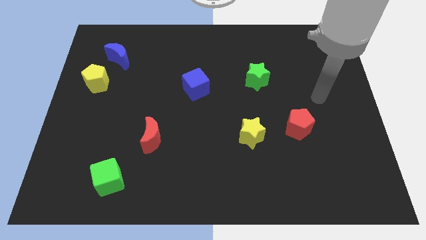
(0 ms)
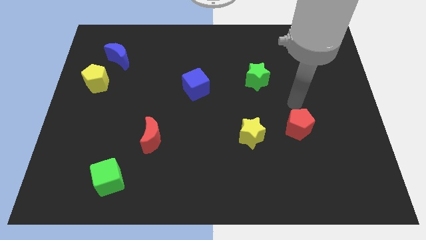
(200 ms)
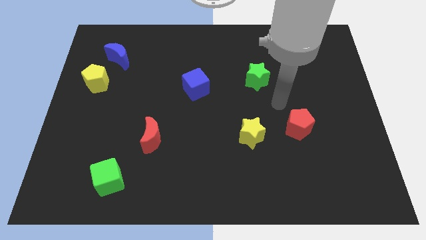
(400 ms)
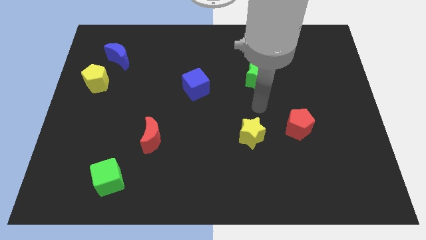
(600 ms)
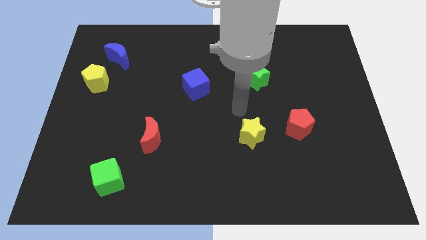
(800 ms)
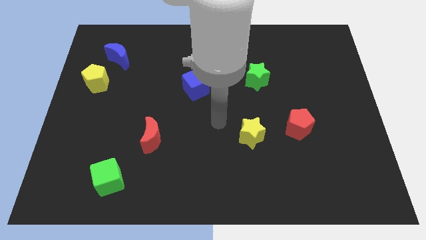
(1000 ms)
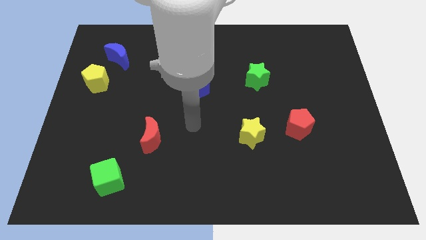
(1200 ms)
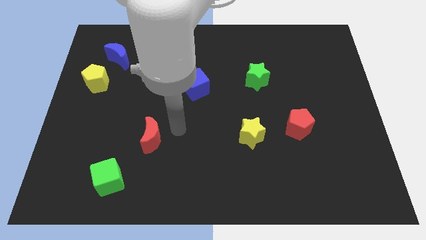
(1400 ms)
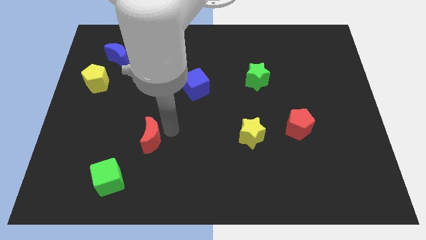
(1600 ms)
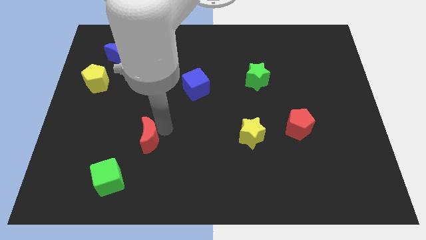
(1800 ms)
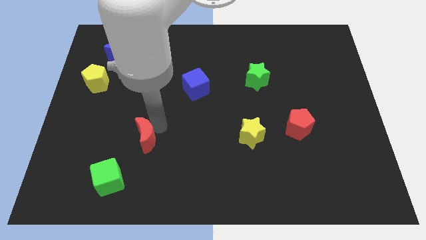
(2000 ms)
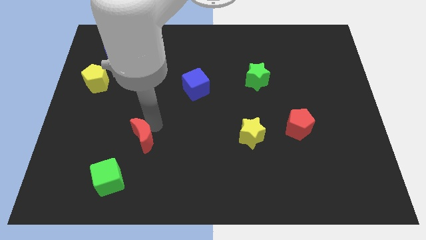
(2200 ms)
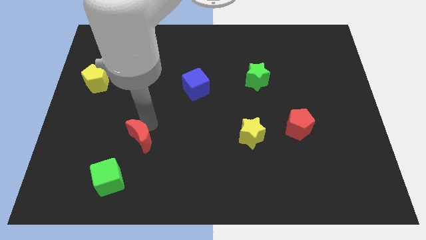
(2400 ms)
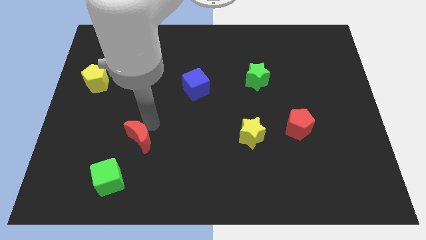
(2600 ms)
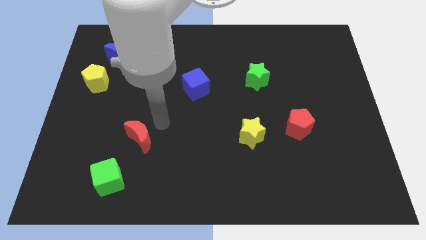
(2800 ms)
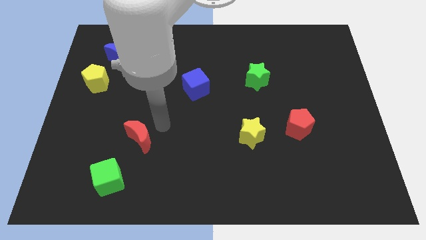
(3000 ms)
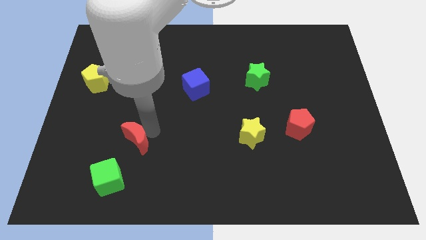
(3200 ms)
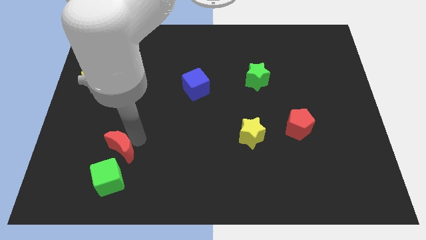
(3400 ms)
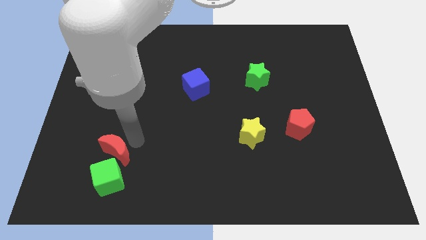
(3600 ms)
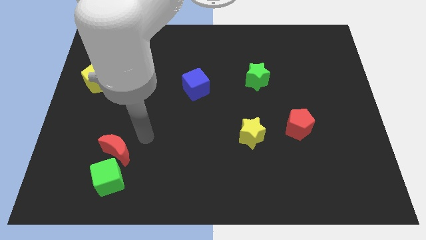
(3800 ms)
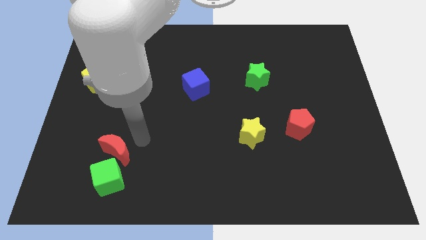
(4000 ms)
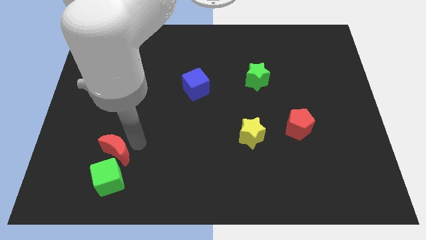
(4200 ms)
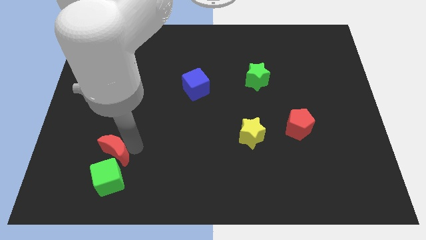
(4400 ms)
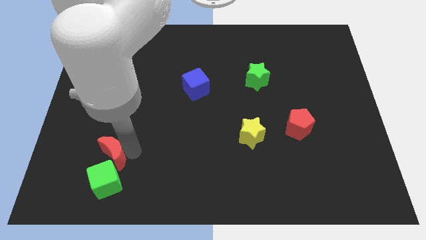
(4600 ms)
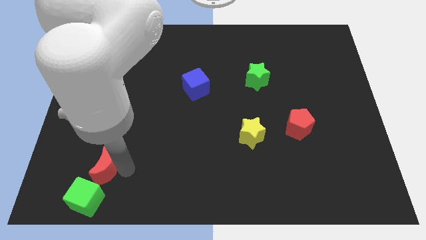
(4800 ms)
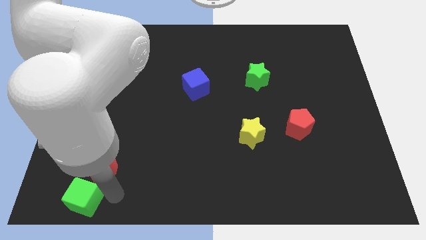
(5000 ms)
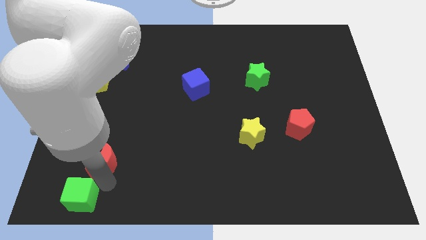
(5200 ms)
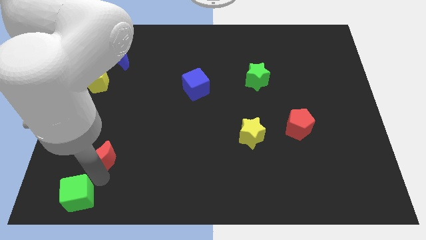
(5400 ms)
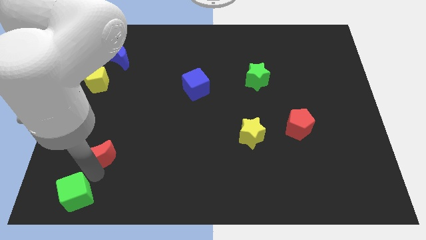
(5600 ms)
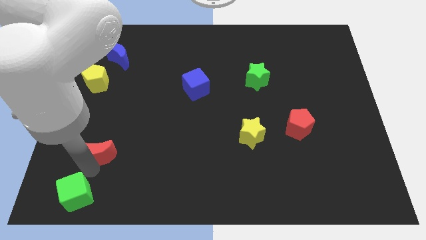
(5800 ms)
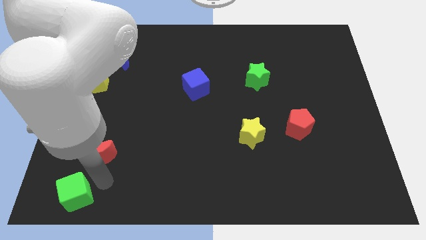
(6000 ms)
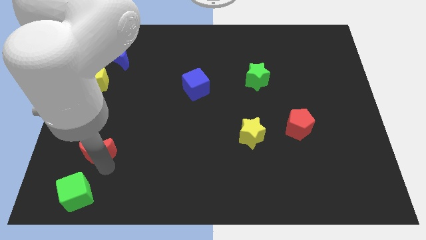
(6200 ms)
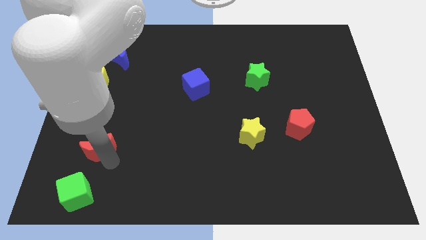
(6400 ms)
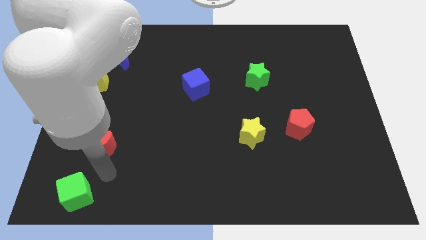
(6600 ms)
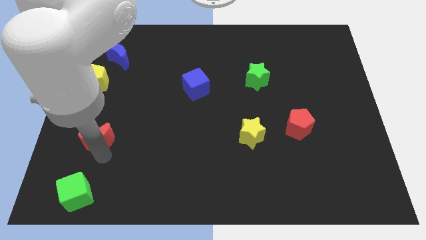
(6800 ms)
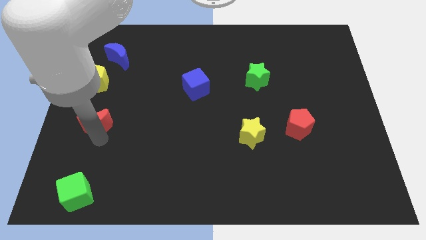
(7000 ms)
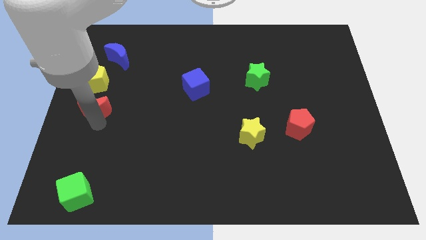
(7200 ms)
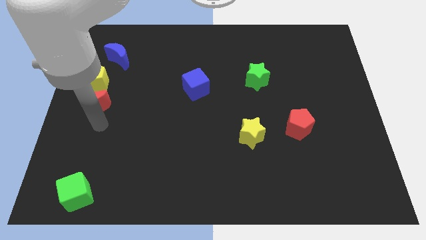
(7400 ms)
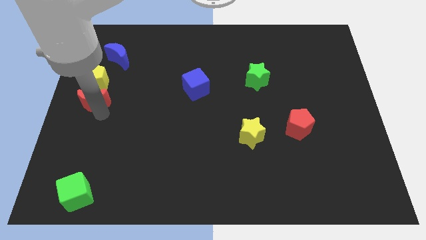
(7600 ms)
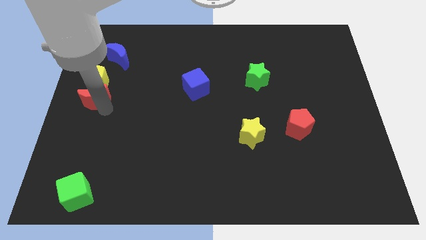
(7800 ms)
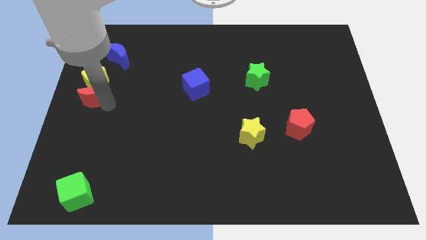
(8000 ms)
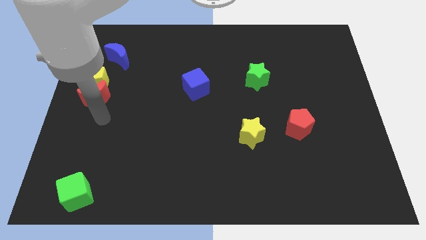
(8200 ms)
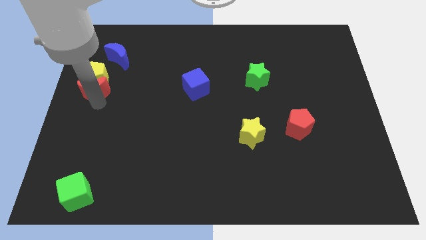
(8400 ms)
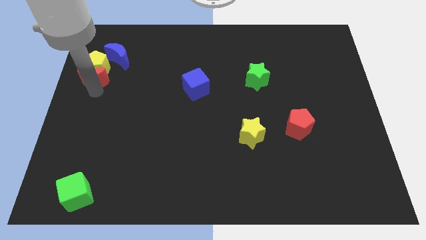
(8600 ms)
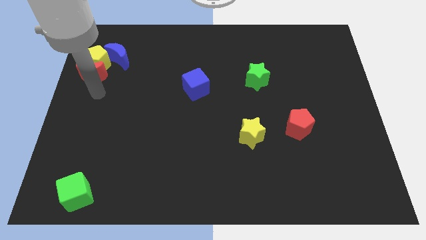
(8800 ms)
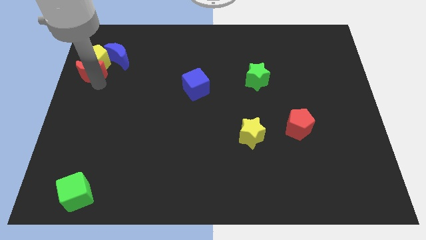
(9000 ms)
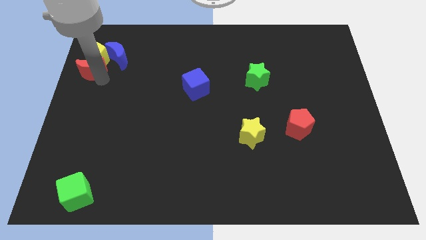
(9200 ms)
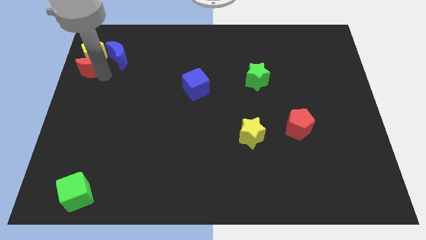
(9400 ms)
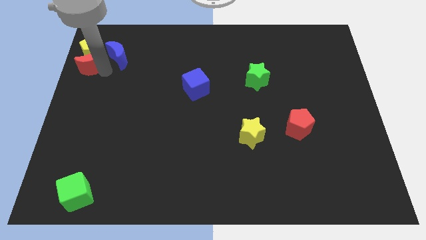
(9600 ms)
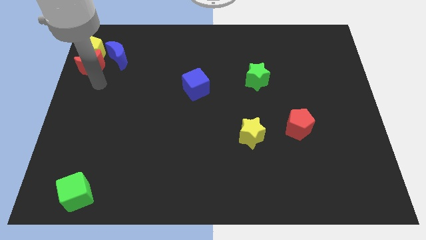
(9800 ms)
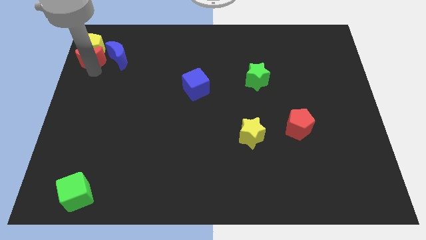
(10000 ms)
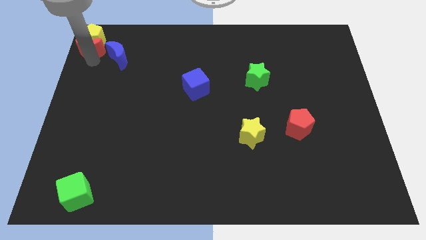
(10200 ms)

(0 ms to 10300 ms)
move the red moon to the top left of the board

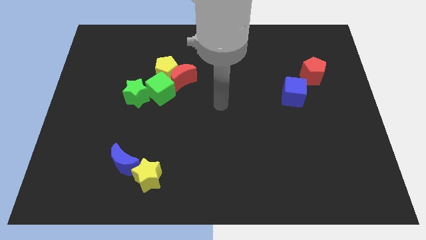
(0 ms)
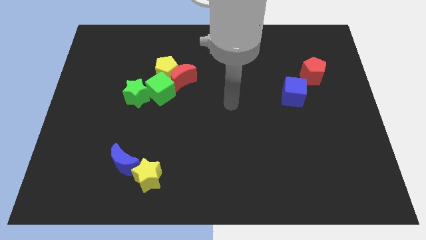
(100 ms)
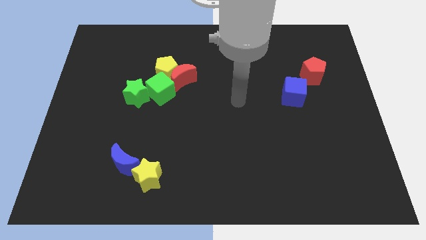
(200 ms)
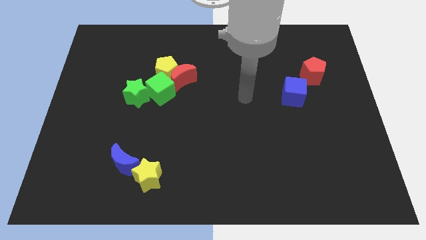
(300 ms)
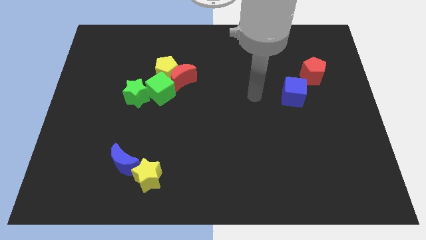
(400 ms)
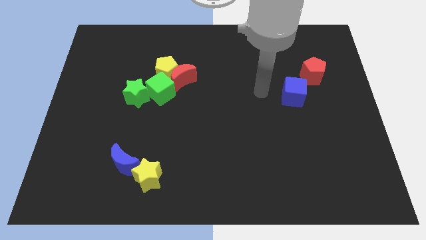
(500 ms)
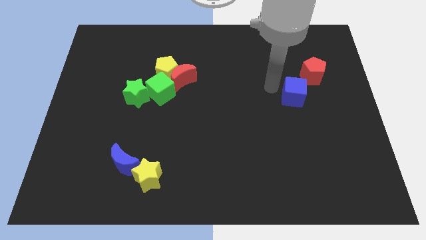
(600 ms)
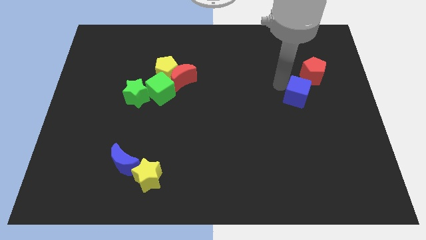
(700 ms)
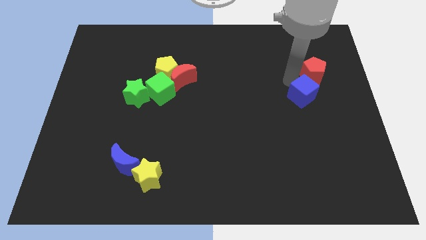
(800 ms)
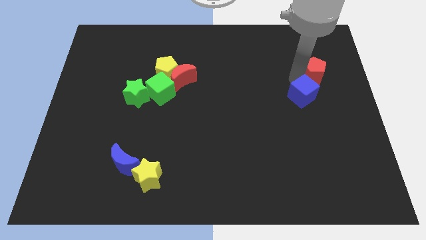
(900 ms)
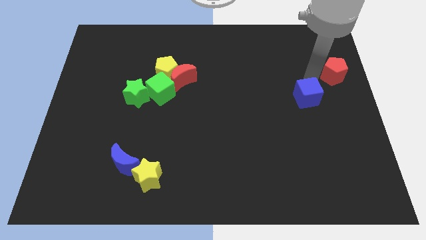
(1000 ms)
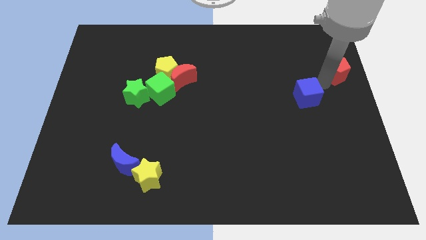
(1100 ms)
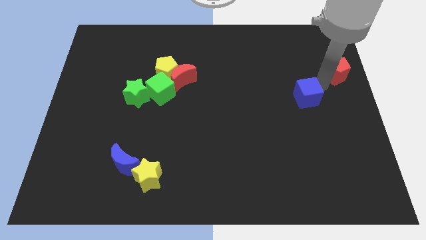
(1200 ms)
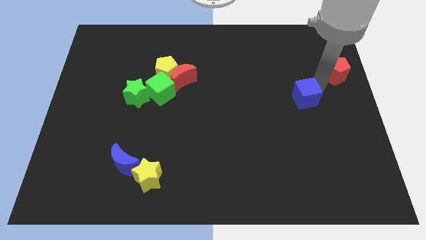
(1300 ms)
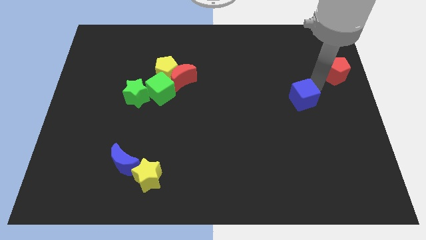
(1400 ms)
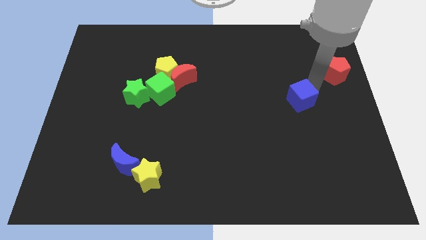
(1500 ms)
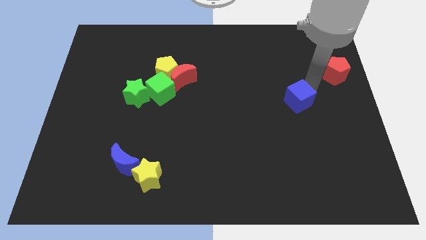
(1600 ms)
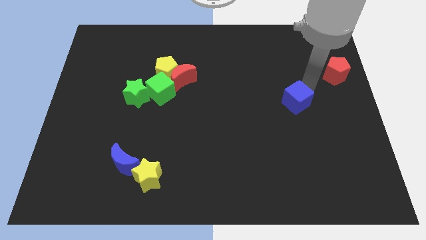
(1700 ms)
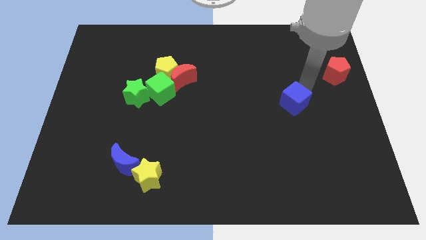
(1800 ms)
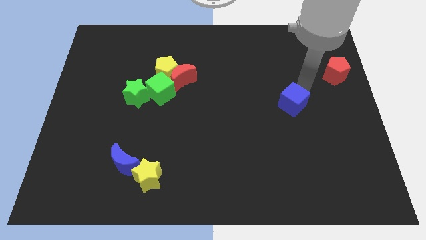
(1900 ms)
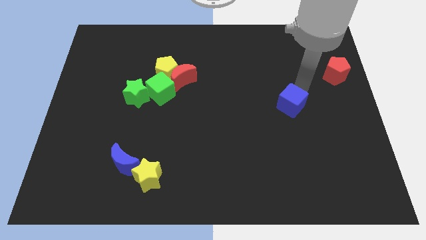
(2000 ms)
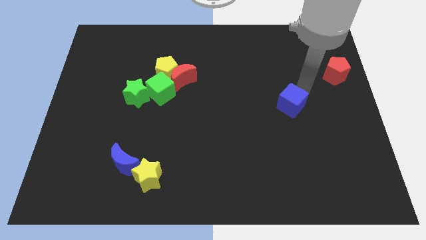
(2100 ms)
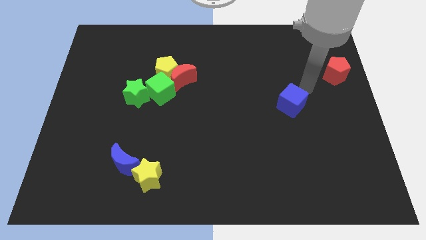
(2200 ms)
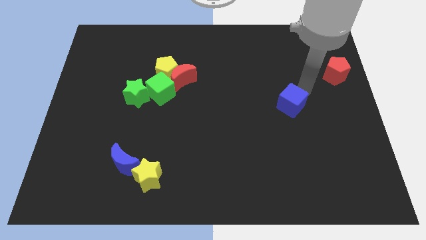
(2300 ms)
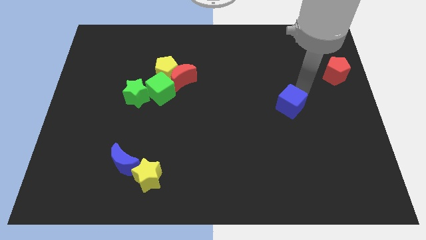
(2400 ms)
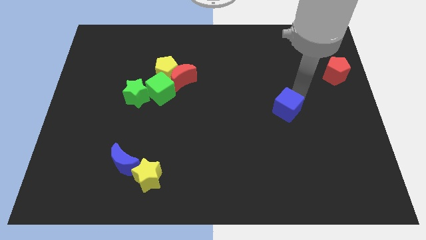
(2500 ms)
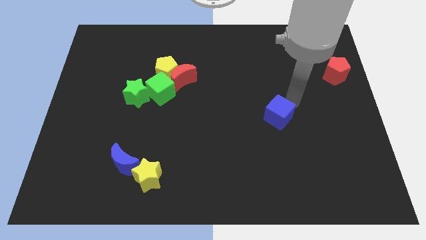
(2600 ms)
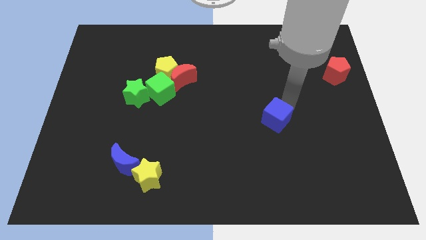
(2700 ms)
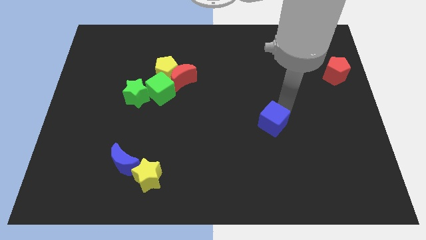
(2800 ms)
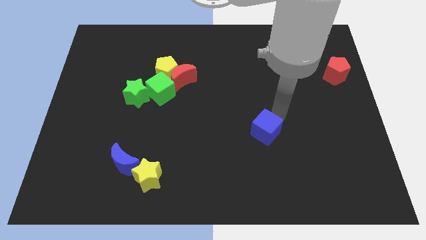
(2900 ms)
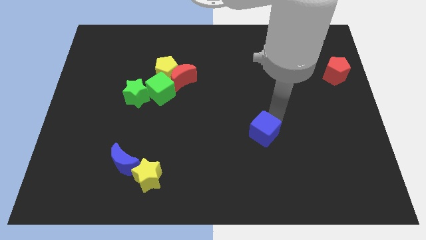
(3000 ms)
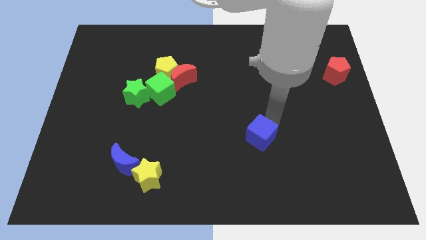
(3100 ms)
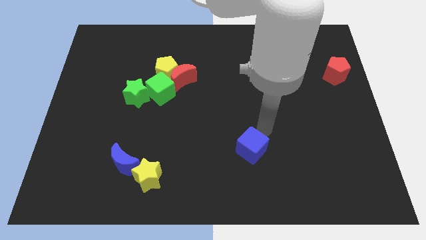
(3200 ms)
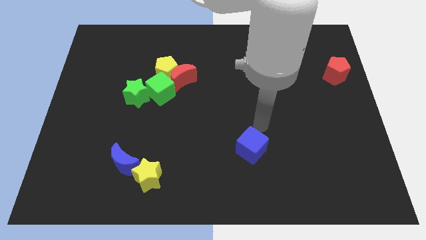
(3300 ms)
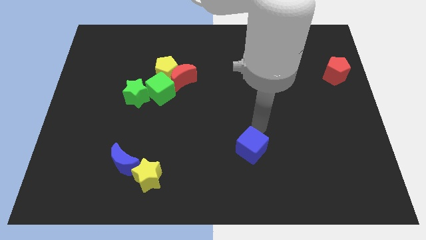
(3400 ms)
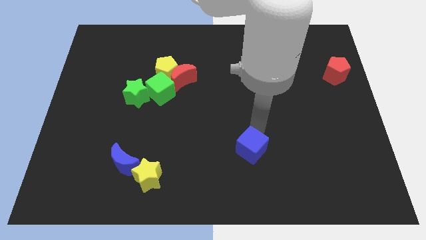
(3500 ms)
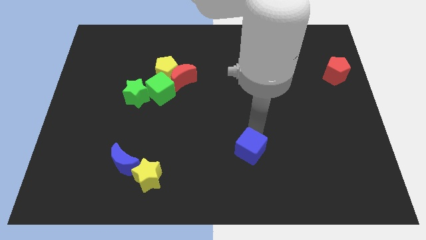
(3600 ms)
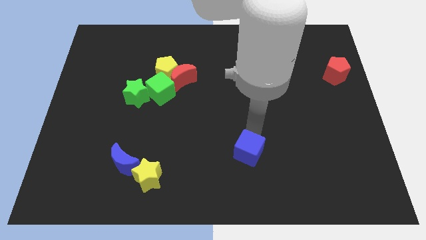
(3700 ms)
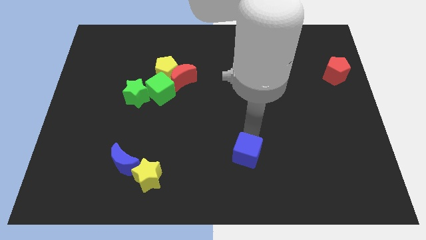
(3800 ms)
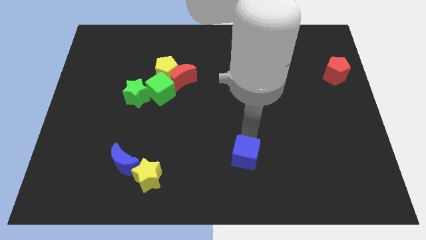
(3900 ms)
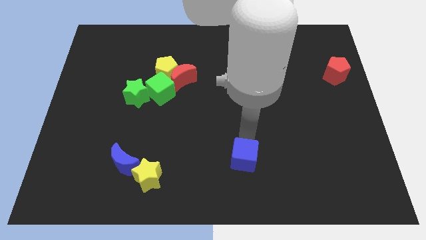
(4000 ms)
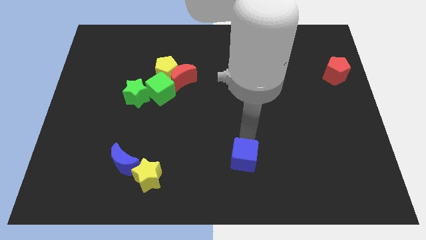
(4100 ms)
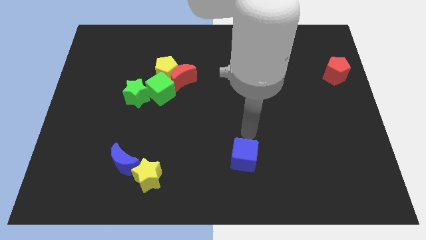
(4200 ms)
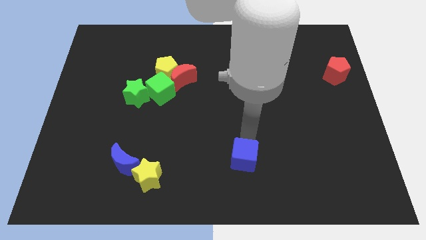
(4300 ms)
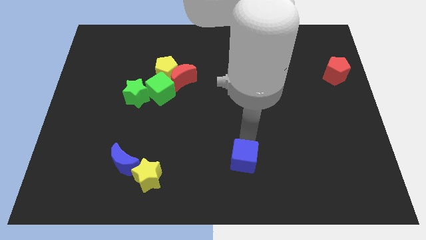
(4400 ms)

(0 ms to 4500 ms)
slide the blue cube to the bottom side
